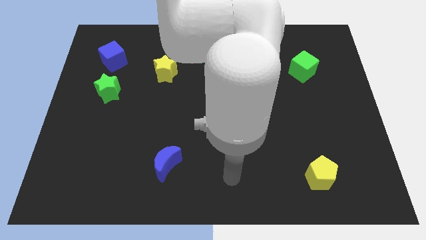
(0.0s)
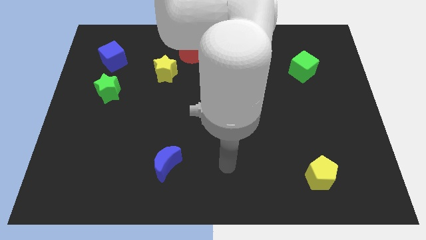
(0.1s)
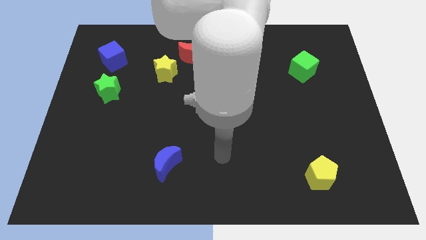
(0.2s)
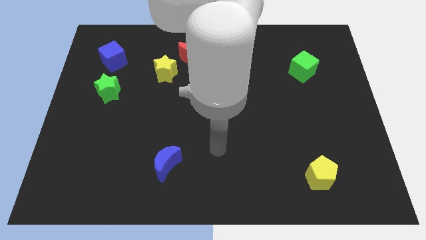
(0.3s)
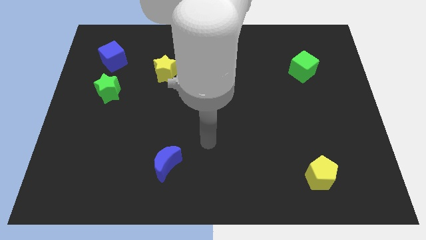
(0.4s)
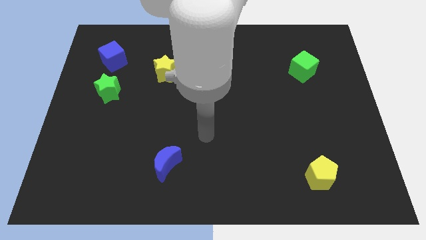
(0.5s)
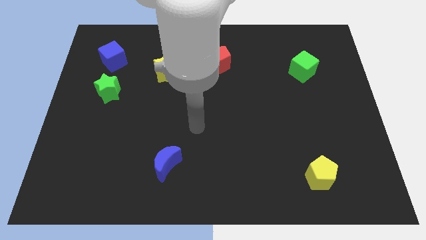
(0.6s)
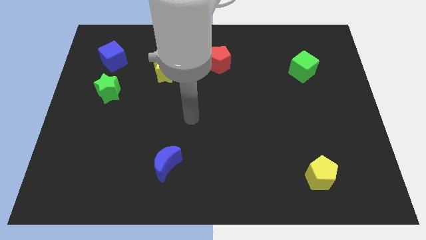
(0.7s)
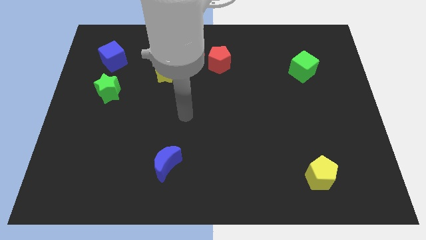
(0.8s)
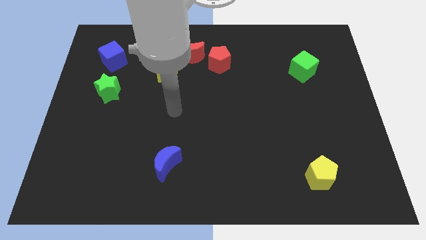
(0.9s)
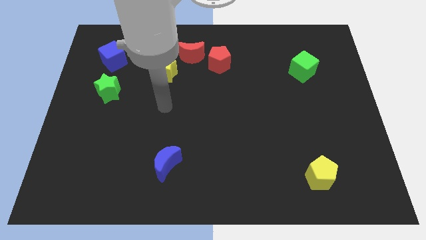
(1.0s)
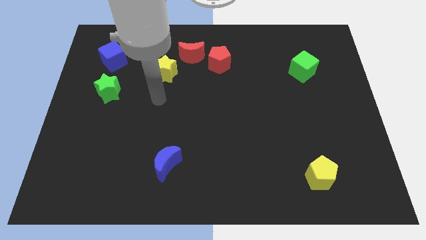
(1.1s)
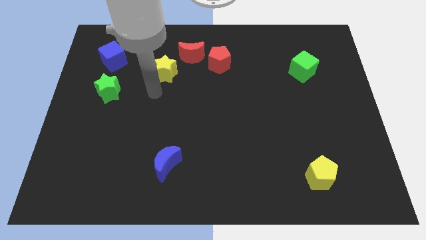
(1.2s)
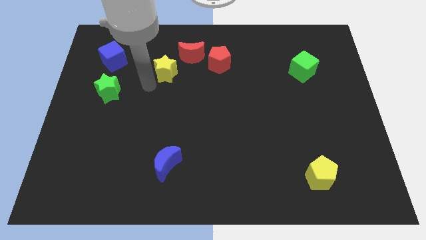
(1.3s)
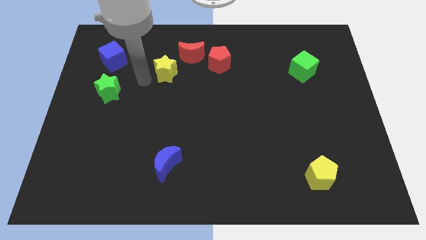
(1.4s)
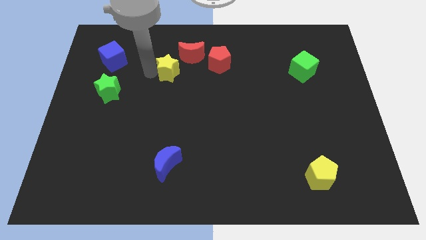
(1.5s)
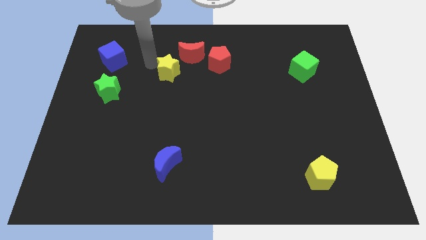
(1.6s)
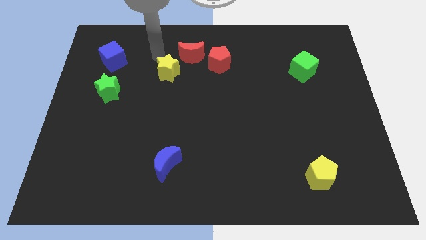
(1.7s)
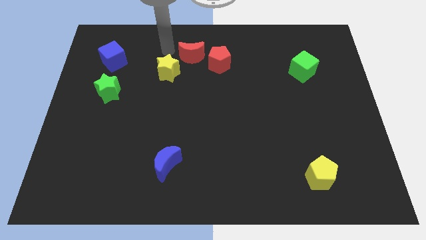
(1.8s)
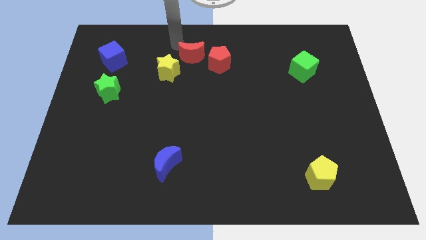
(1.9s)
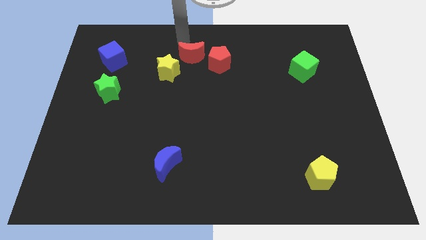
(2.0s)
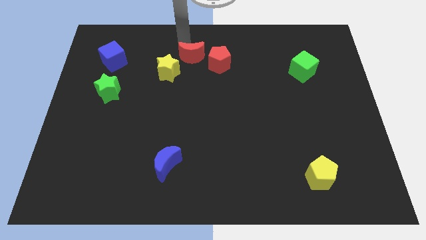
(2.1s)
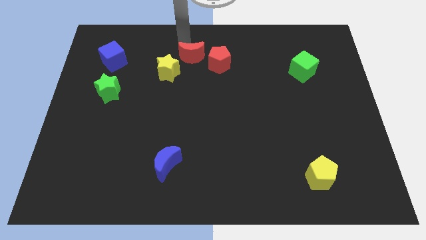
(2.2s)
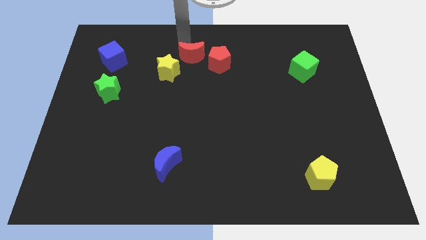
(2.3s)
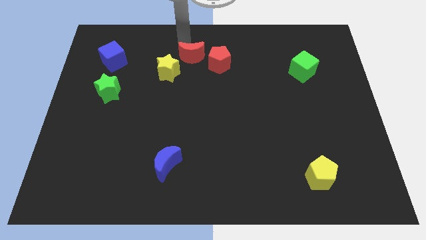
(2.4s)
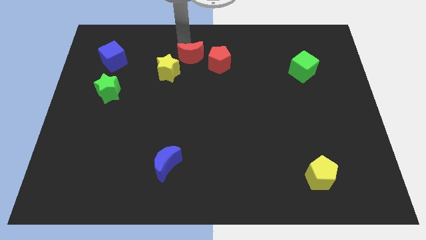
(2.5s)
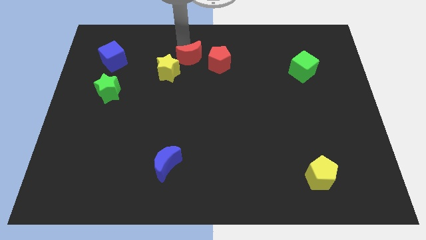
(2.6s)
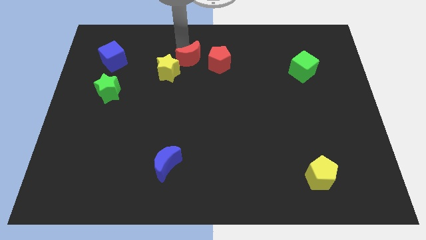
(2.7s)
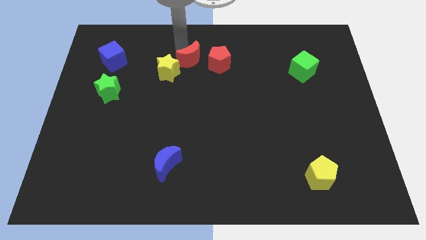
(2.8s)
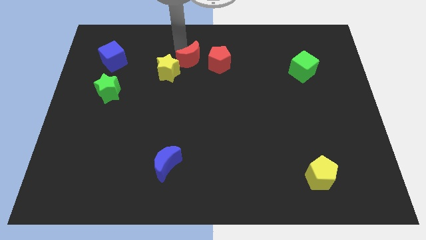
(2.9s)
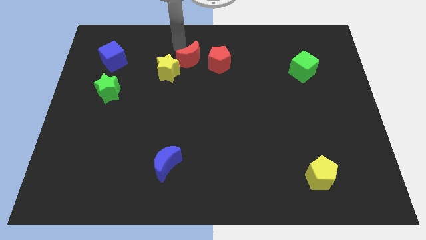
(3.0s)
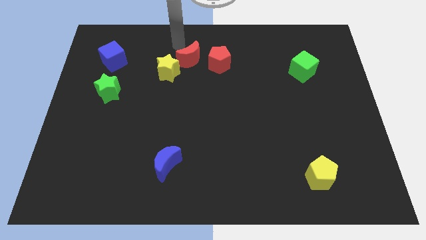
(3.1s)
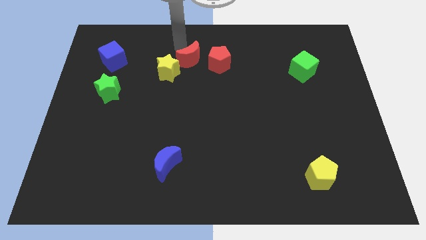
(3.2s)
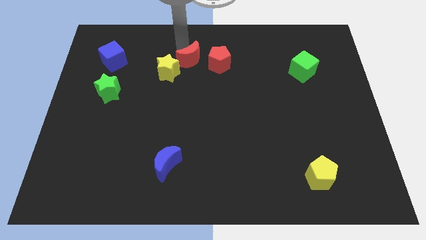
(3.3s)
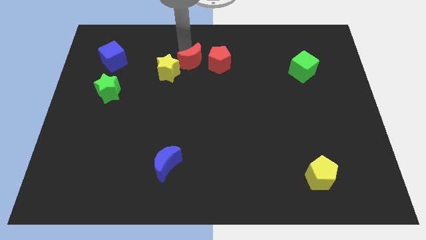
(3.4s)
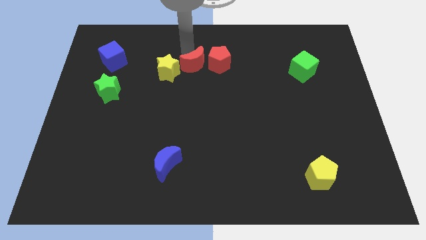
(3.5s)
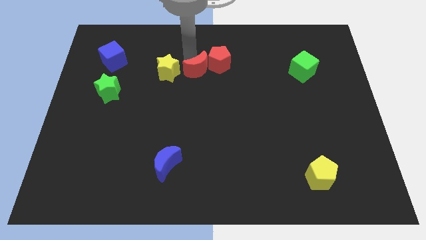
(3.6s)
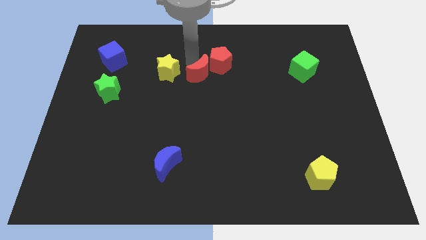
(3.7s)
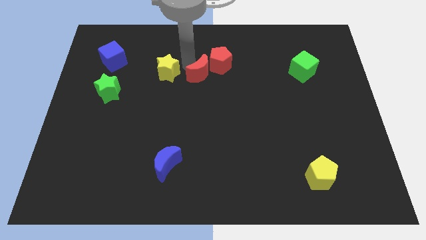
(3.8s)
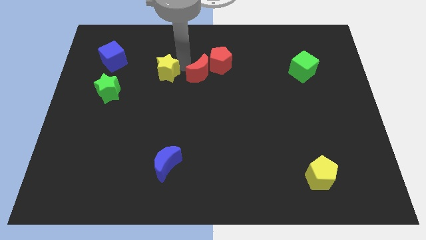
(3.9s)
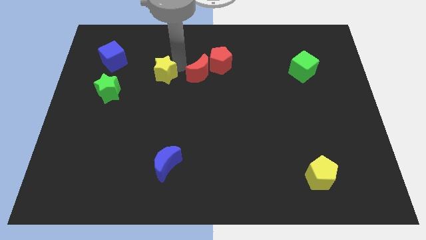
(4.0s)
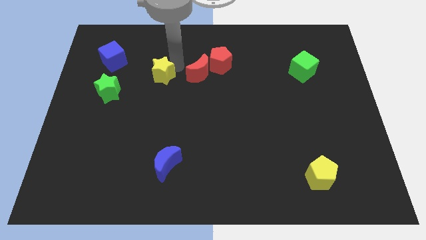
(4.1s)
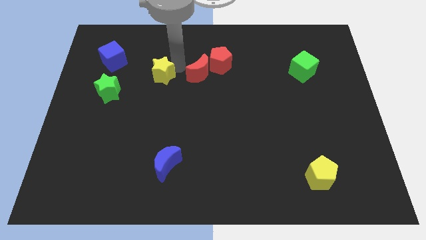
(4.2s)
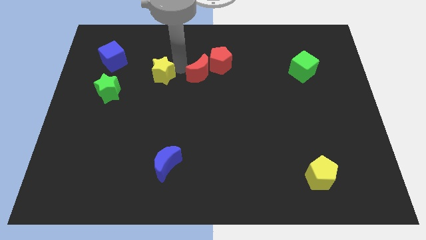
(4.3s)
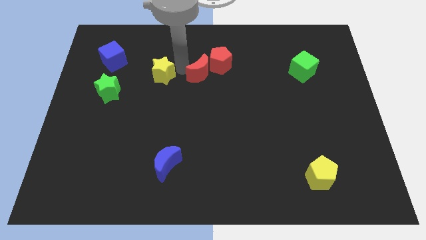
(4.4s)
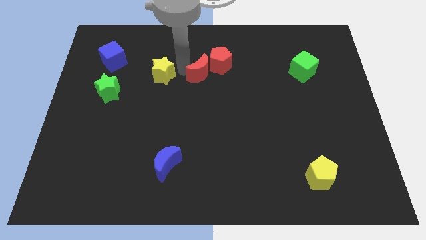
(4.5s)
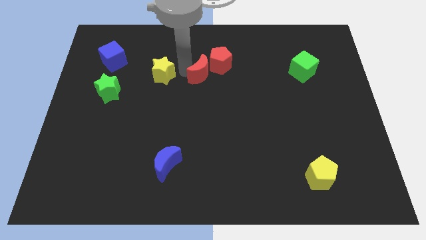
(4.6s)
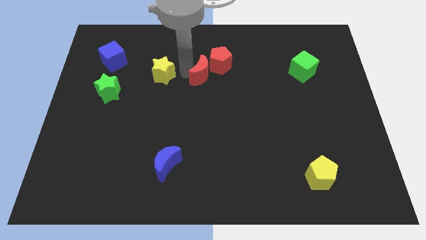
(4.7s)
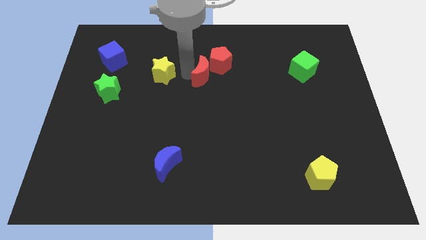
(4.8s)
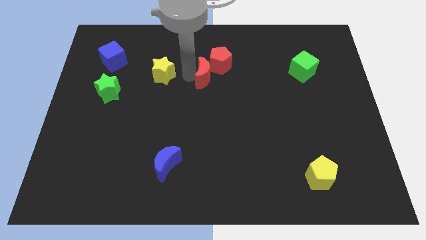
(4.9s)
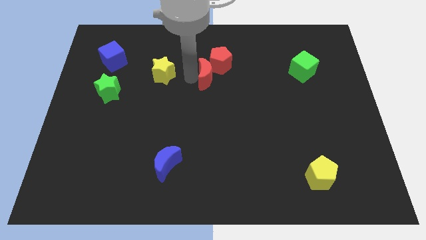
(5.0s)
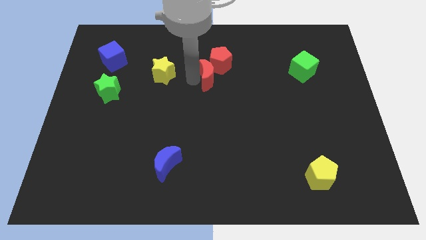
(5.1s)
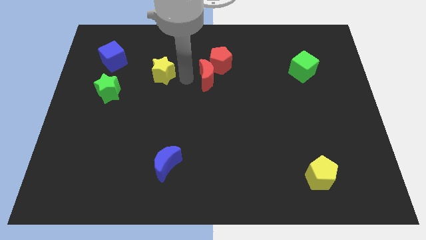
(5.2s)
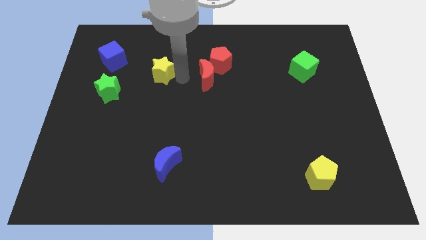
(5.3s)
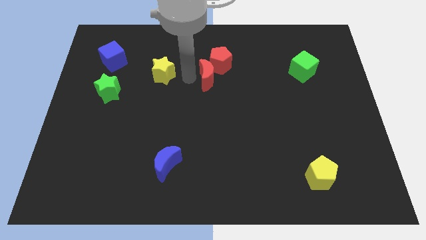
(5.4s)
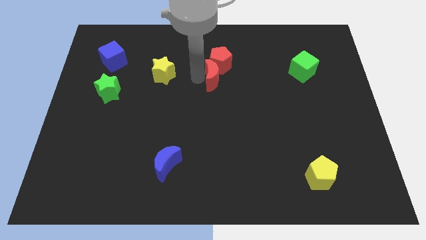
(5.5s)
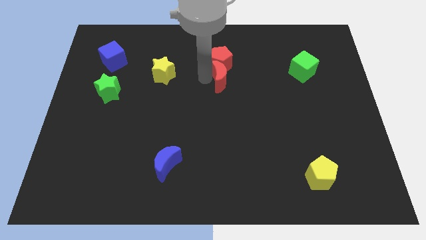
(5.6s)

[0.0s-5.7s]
slide the red moon diagonally down and to the right of the red pentagon
